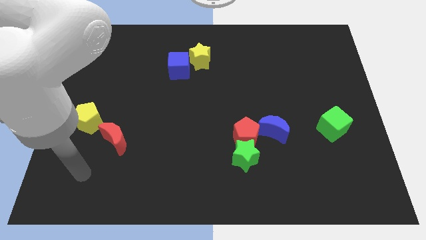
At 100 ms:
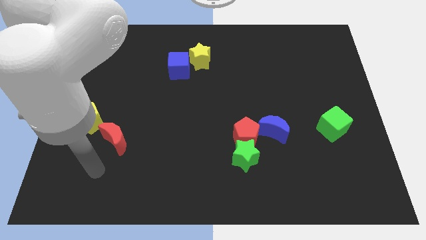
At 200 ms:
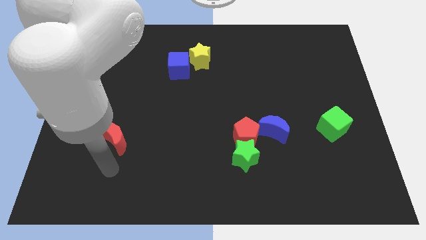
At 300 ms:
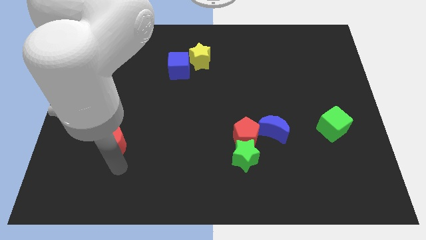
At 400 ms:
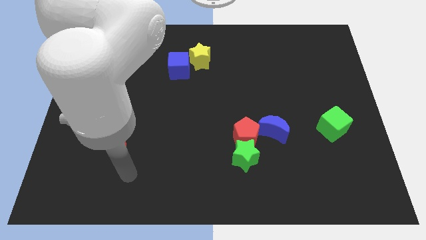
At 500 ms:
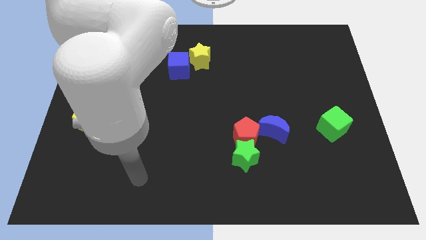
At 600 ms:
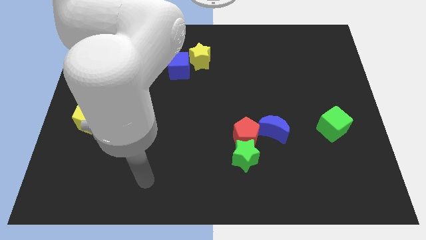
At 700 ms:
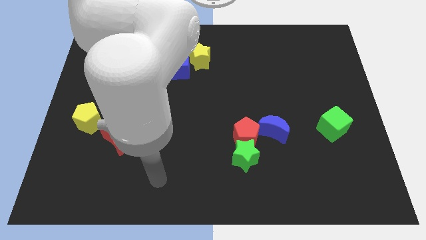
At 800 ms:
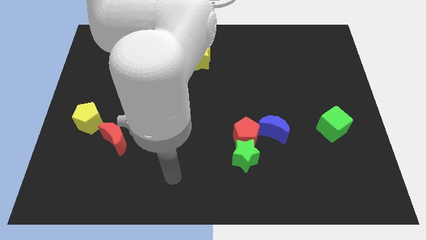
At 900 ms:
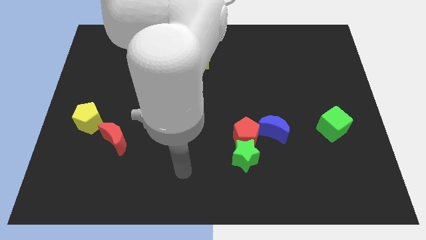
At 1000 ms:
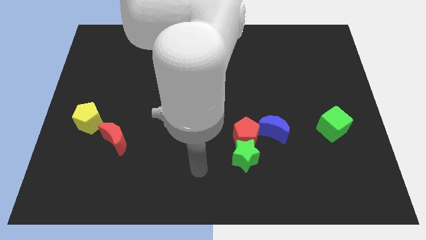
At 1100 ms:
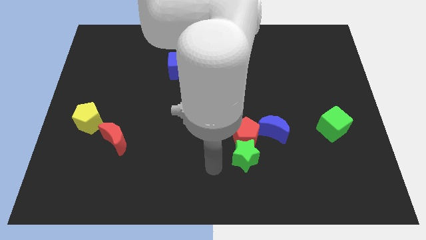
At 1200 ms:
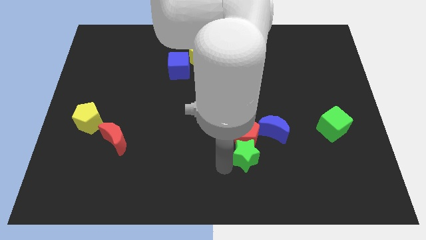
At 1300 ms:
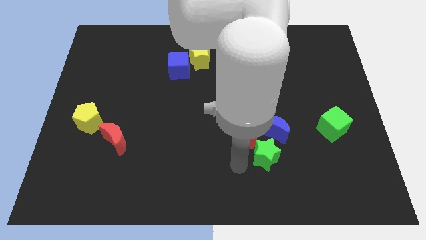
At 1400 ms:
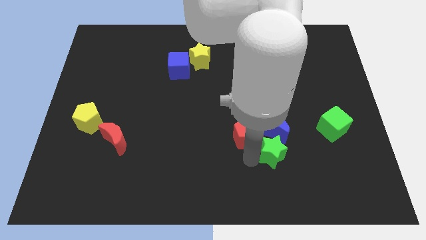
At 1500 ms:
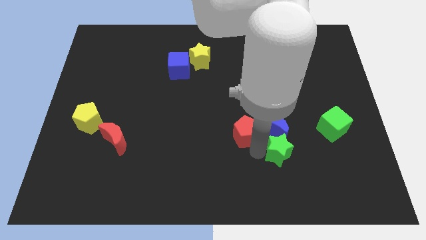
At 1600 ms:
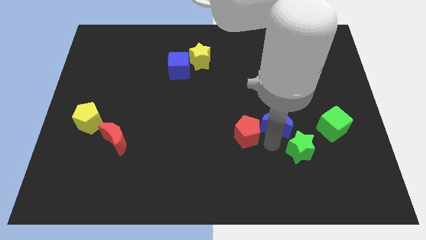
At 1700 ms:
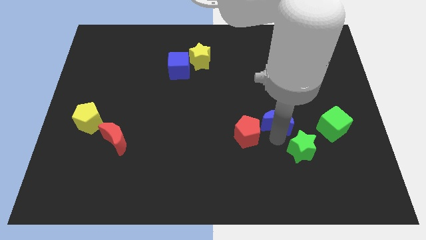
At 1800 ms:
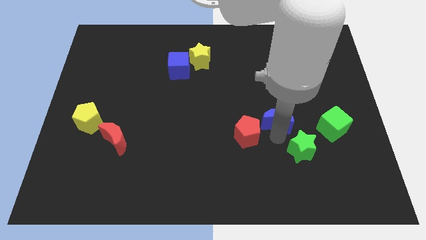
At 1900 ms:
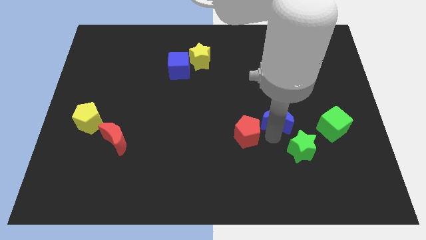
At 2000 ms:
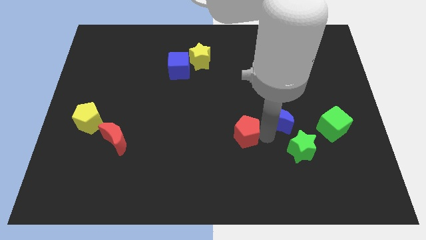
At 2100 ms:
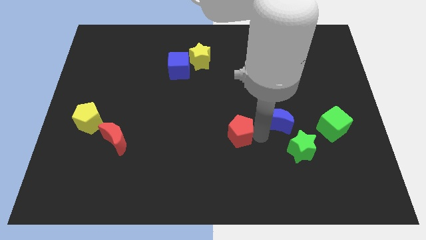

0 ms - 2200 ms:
move the red pentagon away from the green star and blue moon

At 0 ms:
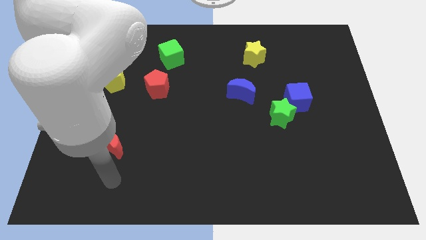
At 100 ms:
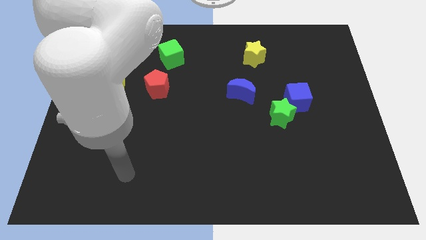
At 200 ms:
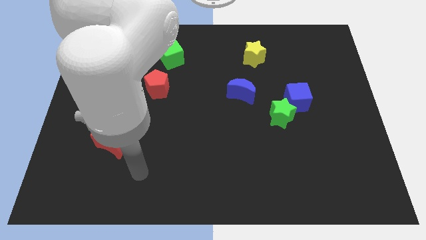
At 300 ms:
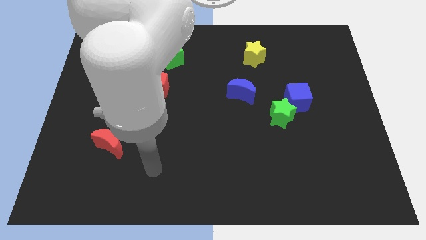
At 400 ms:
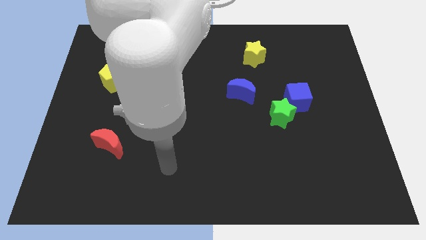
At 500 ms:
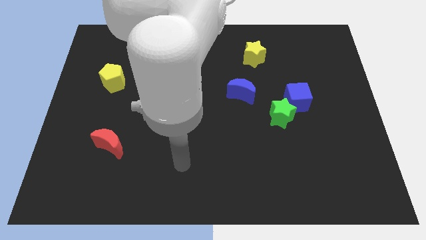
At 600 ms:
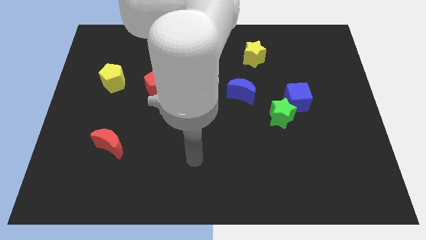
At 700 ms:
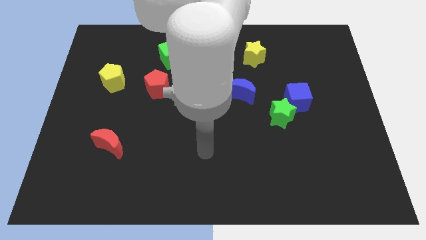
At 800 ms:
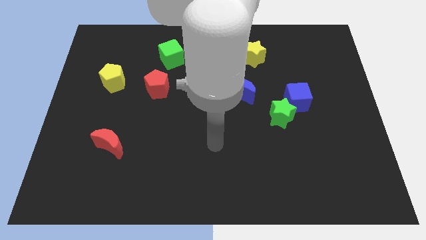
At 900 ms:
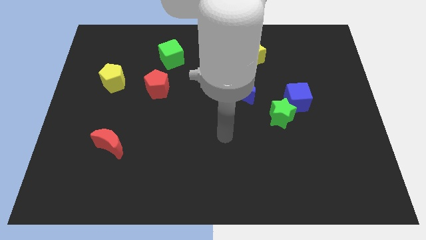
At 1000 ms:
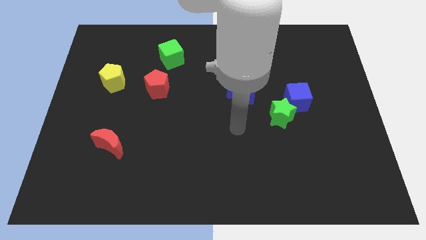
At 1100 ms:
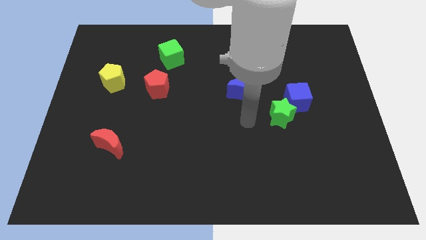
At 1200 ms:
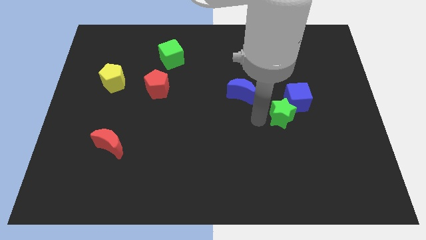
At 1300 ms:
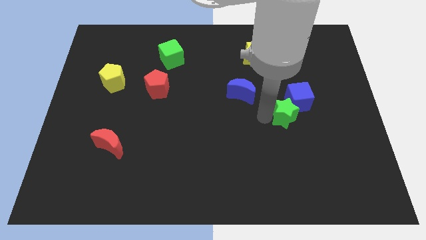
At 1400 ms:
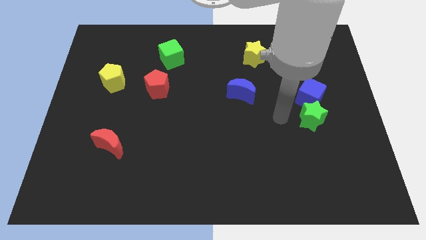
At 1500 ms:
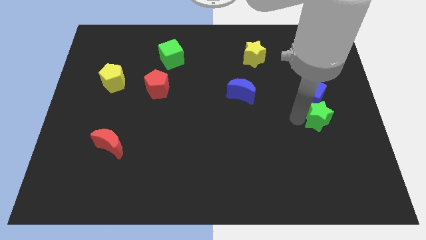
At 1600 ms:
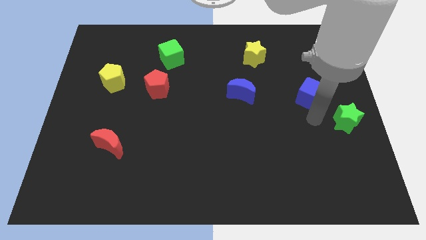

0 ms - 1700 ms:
separate the blue cube from the green star

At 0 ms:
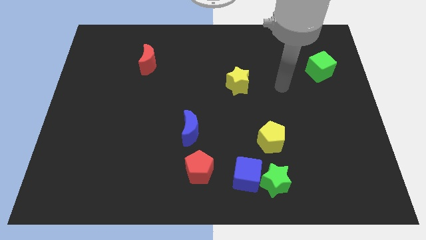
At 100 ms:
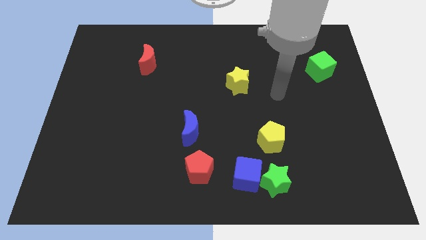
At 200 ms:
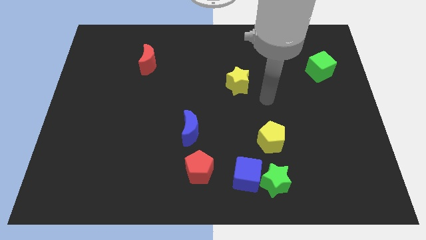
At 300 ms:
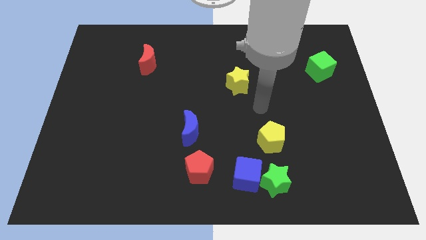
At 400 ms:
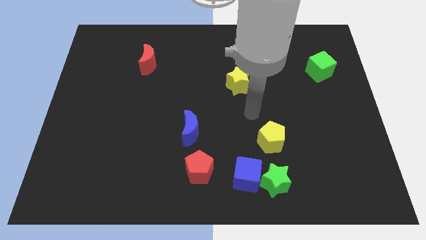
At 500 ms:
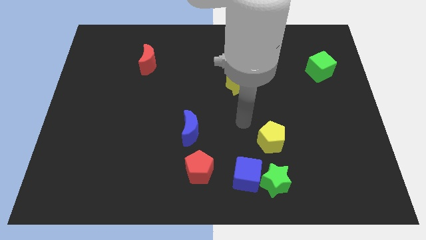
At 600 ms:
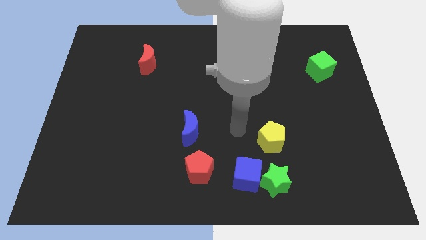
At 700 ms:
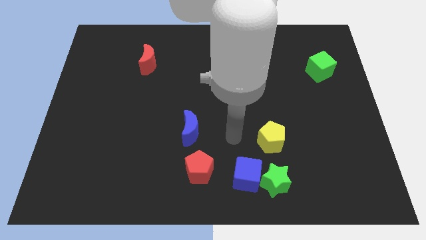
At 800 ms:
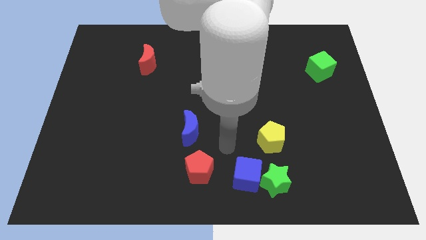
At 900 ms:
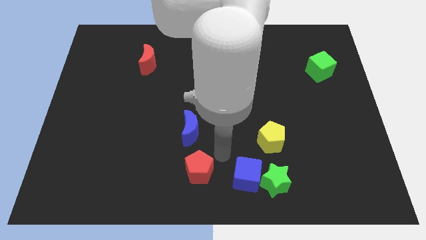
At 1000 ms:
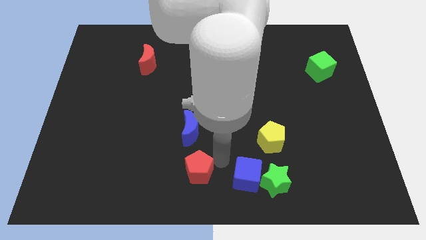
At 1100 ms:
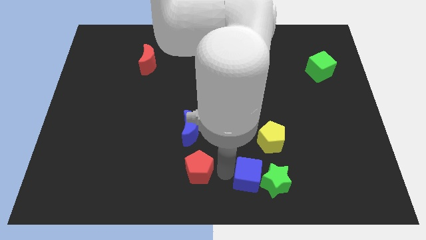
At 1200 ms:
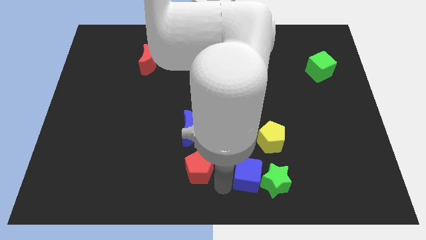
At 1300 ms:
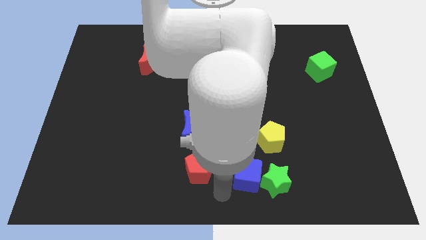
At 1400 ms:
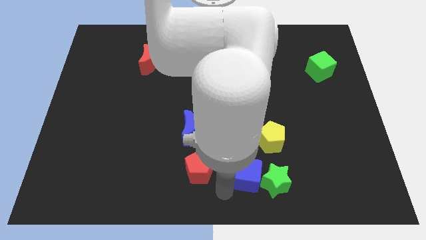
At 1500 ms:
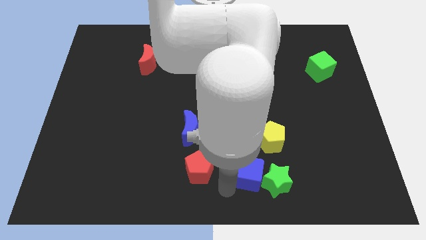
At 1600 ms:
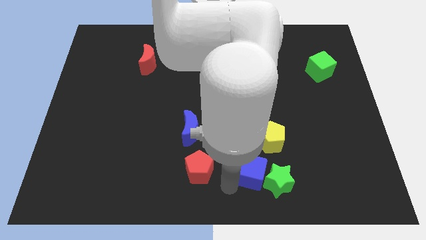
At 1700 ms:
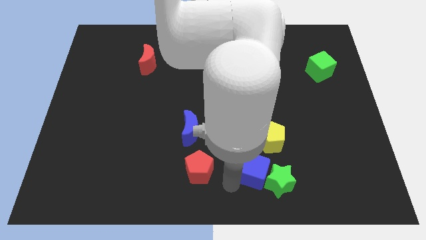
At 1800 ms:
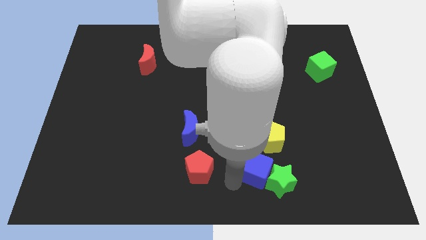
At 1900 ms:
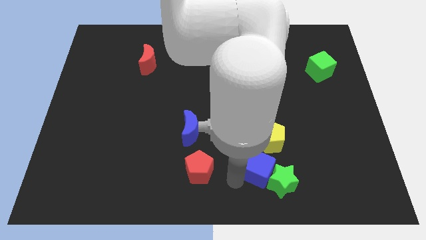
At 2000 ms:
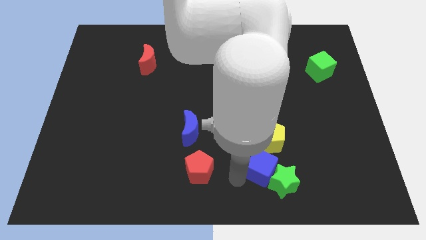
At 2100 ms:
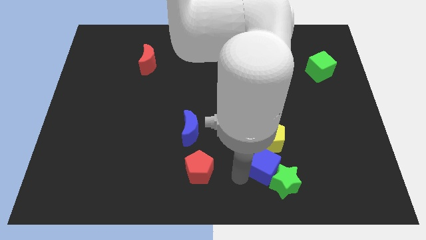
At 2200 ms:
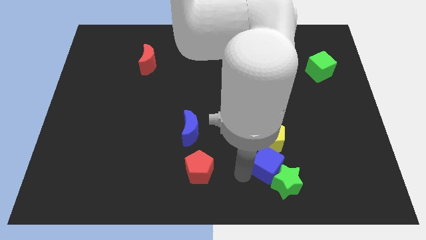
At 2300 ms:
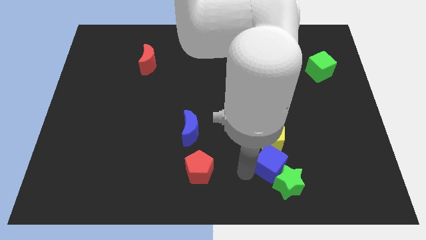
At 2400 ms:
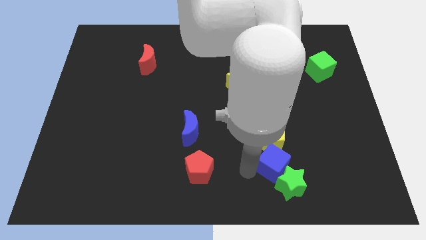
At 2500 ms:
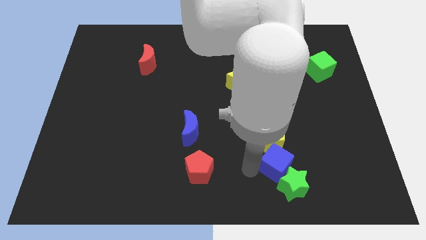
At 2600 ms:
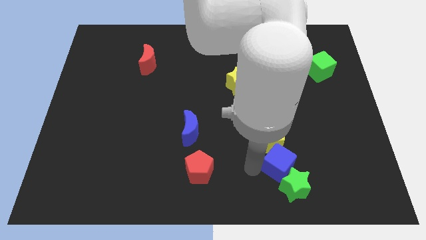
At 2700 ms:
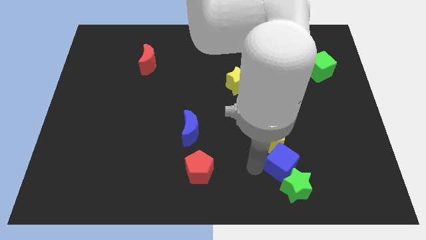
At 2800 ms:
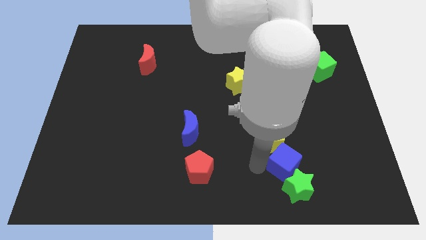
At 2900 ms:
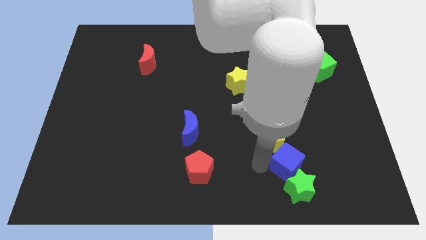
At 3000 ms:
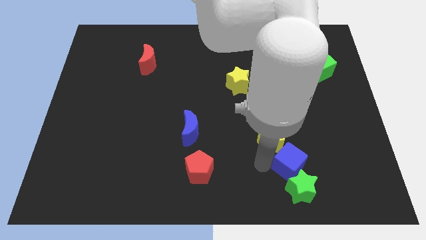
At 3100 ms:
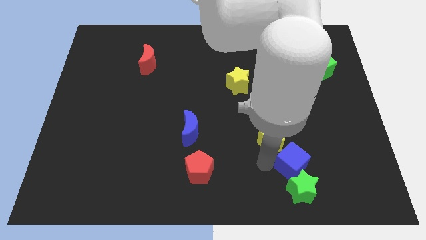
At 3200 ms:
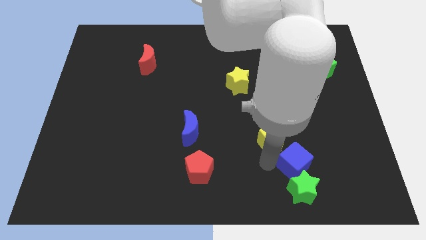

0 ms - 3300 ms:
pull the blue cube apart from the green star and red pentagon

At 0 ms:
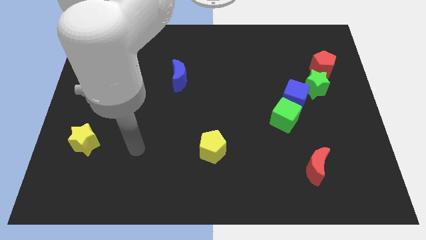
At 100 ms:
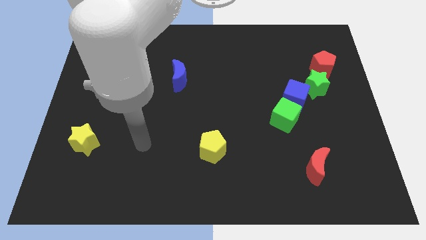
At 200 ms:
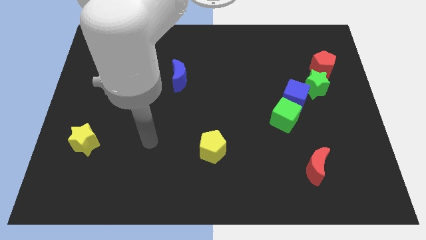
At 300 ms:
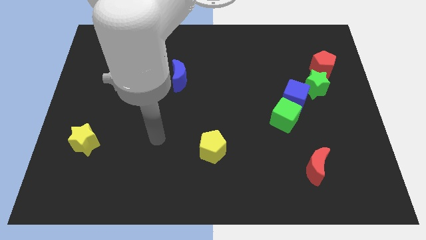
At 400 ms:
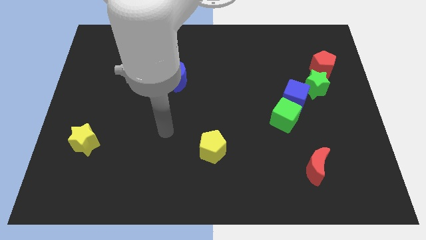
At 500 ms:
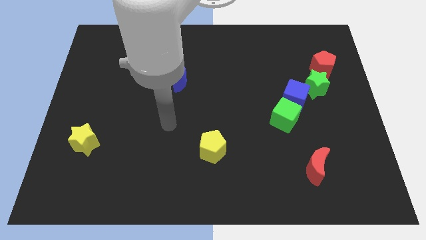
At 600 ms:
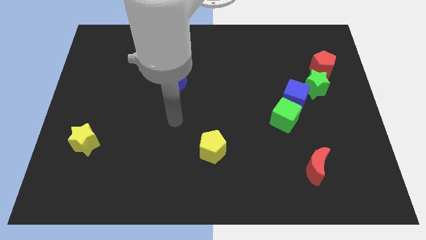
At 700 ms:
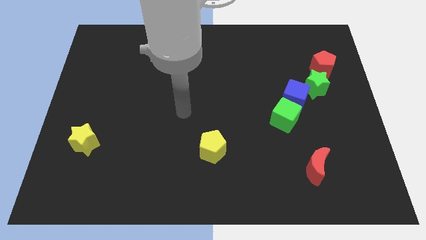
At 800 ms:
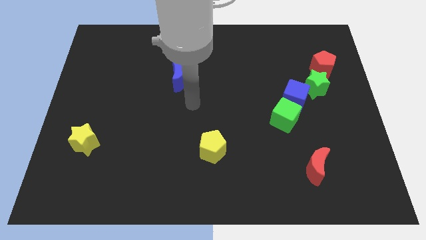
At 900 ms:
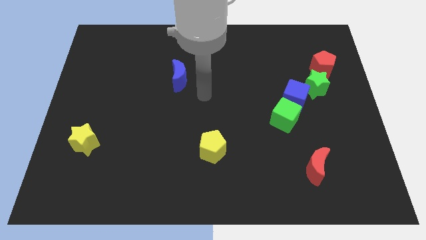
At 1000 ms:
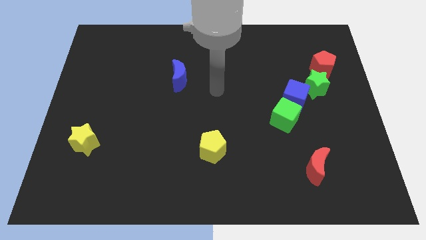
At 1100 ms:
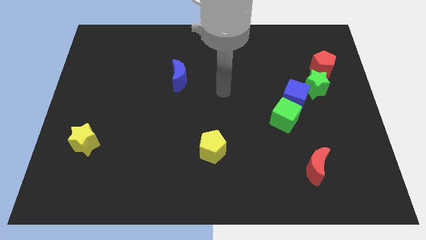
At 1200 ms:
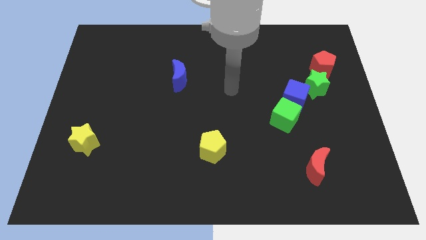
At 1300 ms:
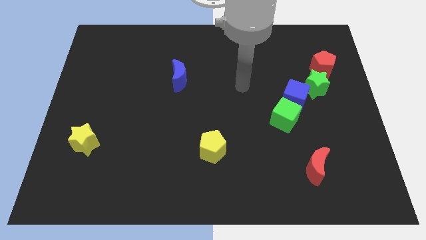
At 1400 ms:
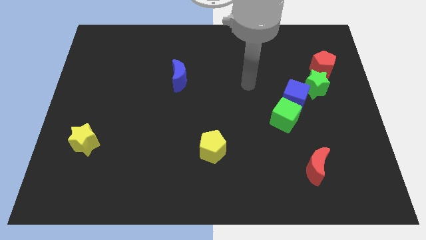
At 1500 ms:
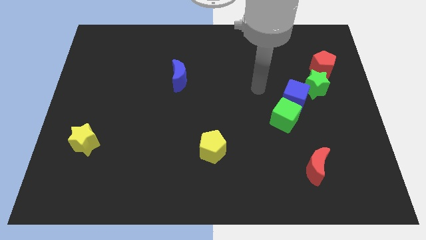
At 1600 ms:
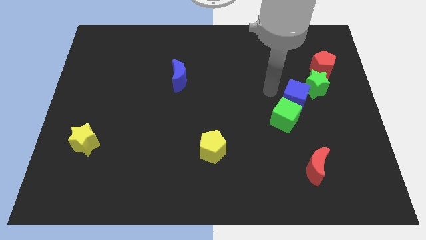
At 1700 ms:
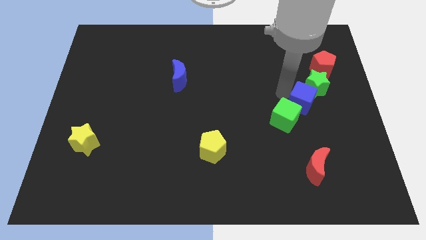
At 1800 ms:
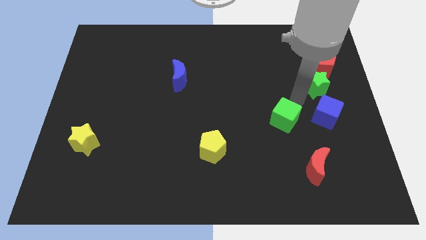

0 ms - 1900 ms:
pull the green cube apart from the blue cube

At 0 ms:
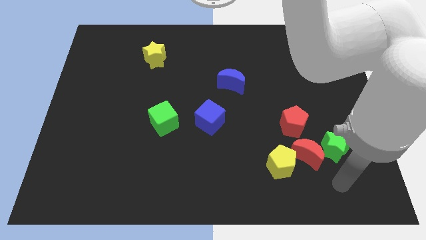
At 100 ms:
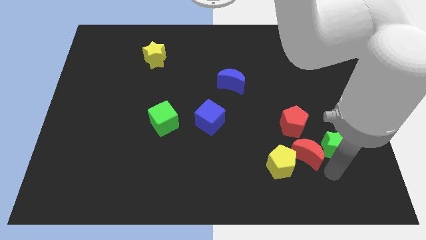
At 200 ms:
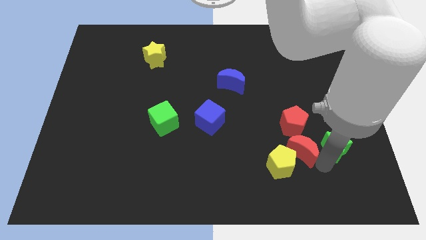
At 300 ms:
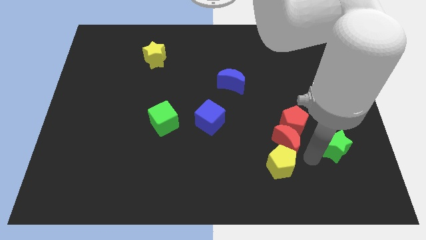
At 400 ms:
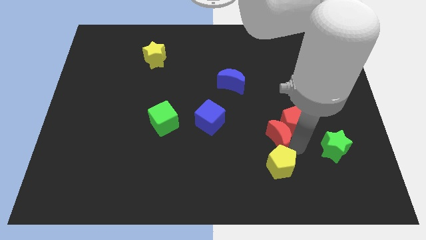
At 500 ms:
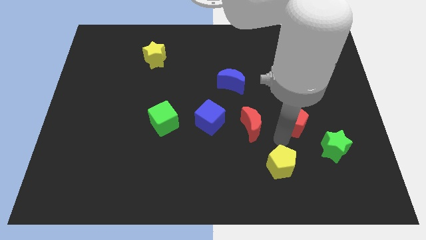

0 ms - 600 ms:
pull the yellow pentagon apart from the red moon
